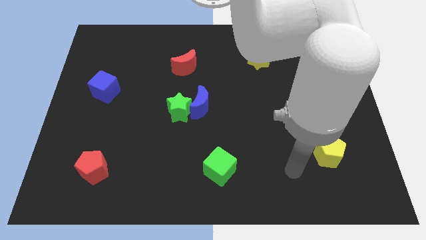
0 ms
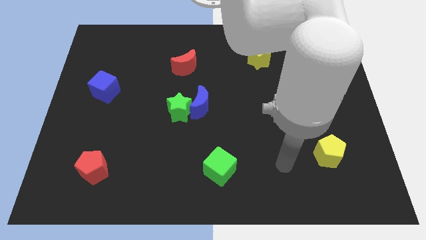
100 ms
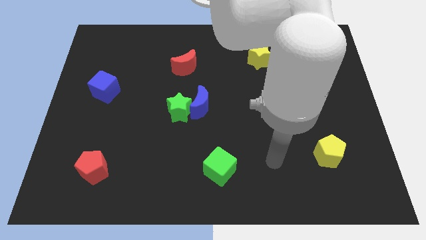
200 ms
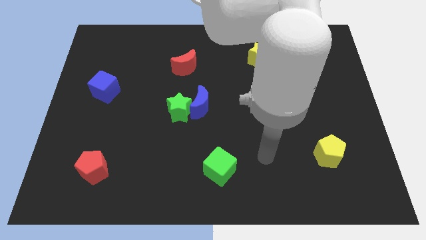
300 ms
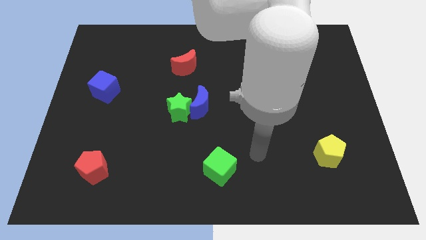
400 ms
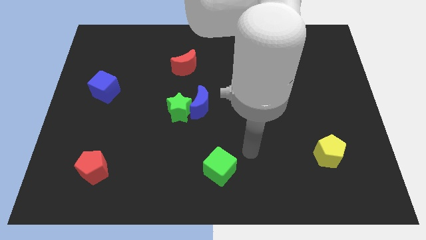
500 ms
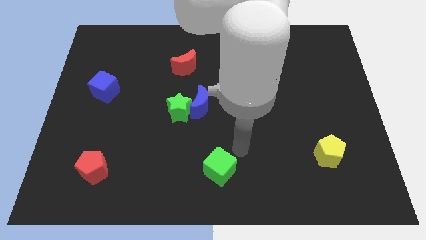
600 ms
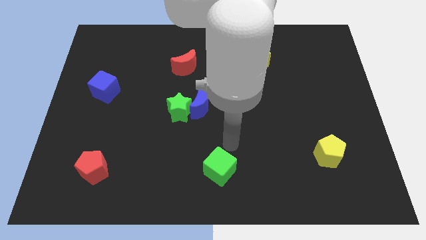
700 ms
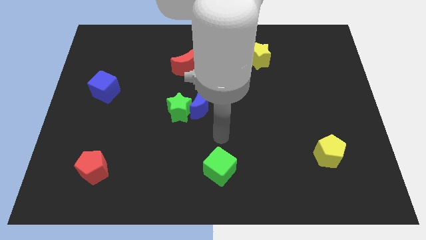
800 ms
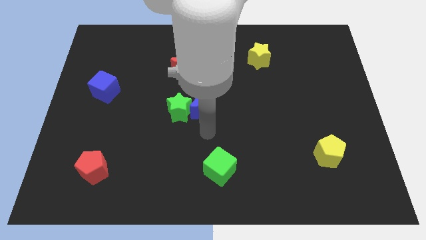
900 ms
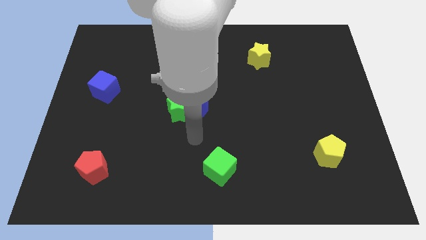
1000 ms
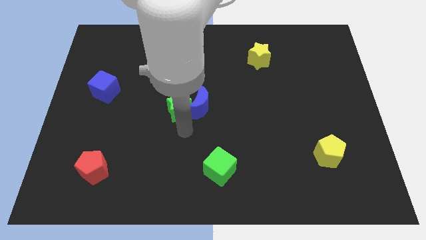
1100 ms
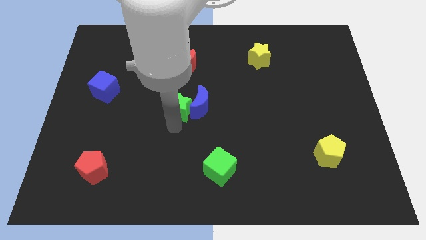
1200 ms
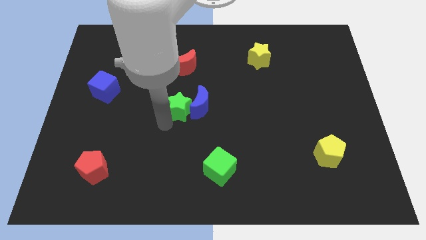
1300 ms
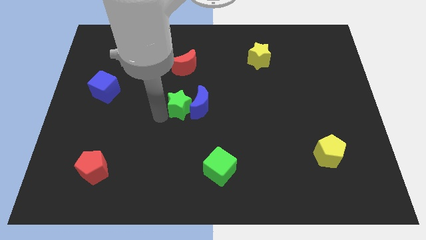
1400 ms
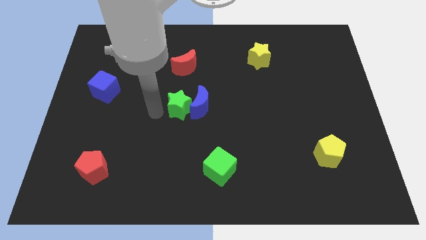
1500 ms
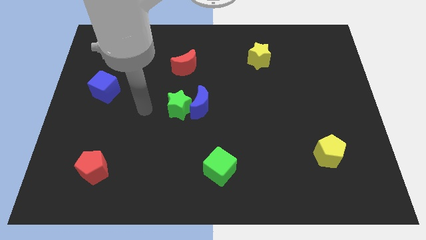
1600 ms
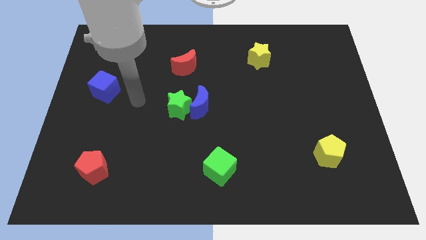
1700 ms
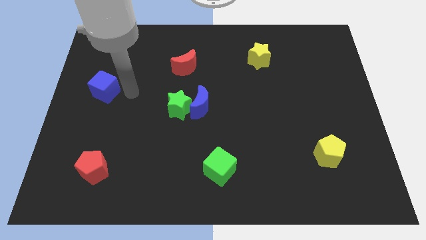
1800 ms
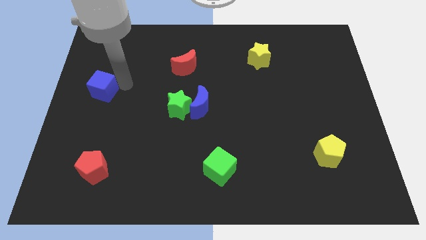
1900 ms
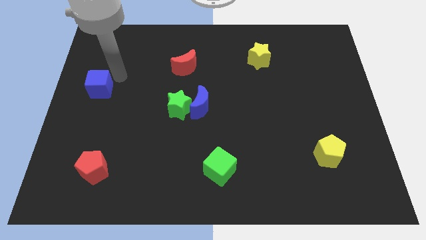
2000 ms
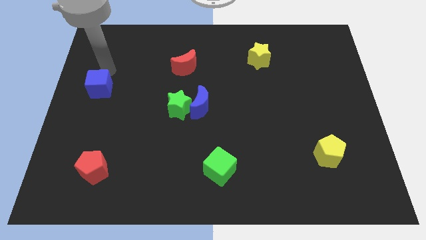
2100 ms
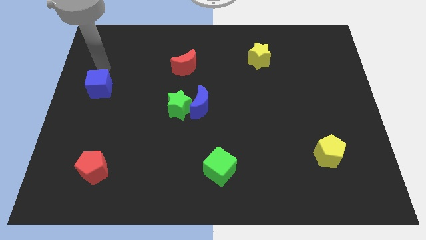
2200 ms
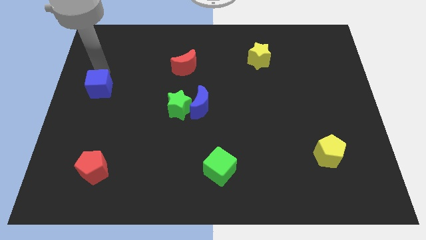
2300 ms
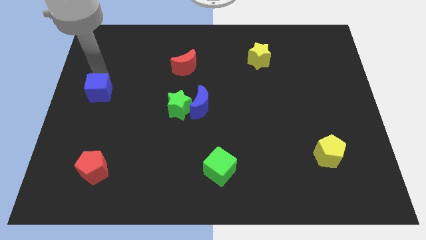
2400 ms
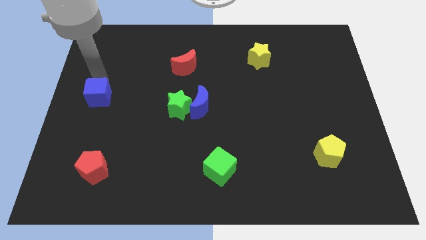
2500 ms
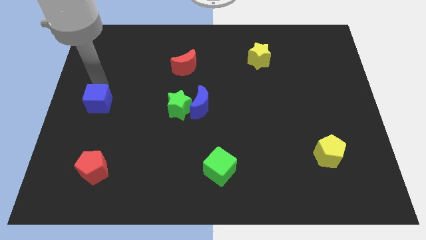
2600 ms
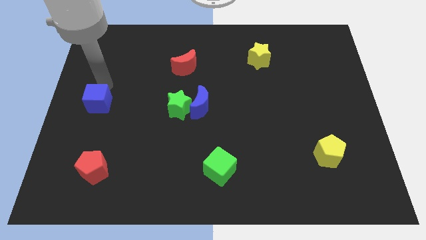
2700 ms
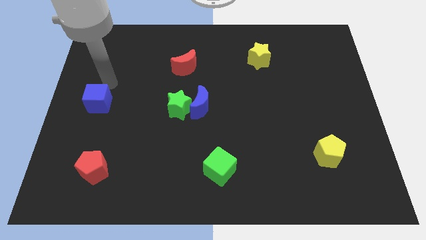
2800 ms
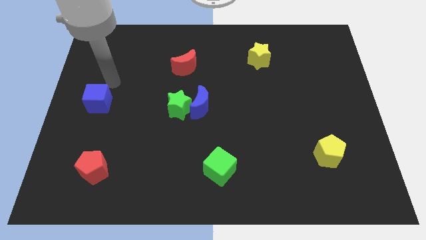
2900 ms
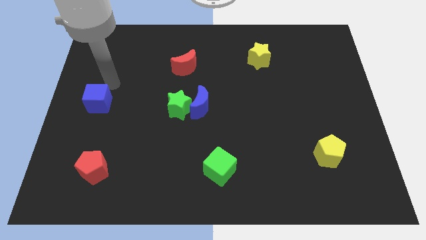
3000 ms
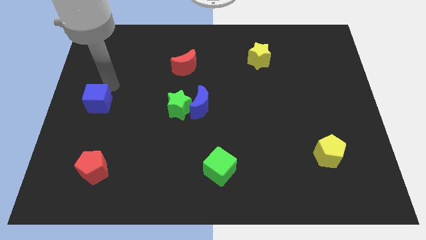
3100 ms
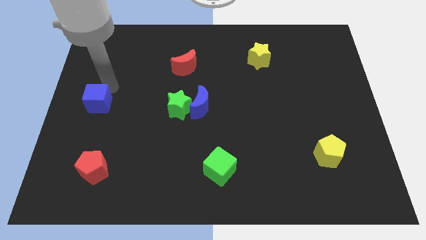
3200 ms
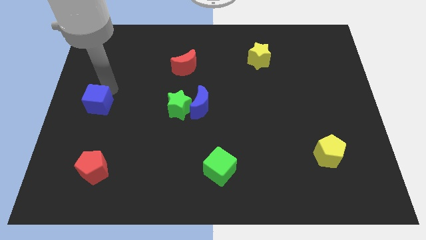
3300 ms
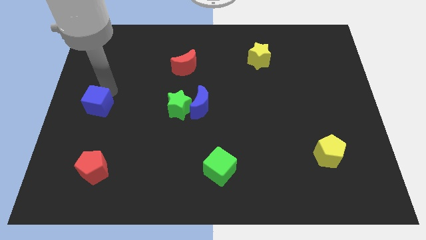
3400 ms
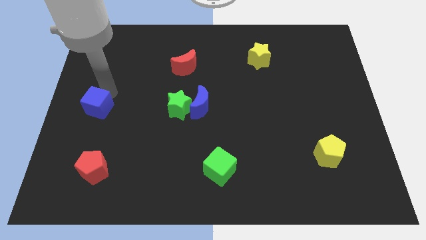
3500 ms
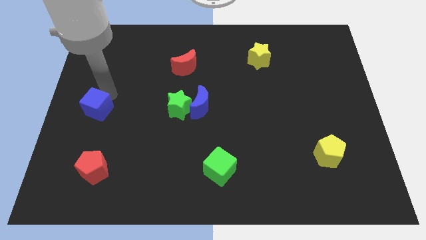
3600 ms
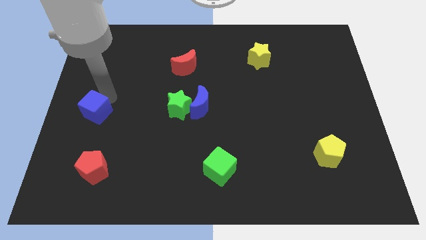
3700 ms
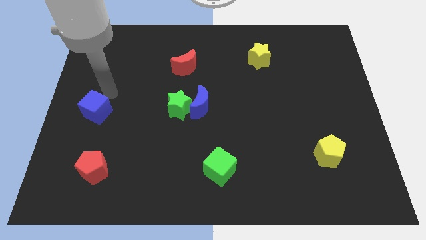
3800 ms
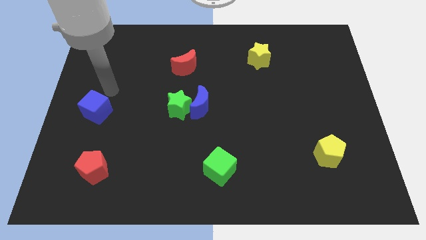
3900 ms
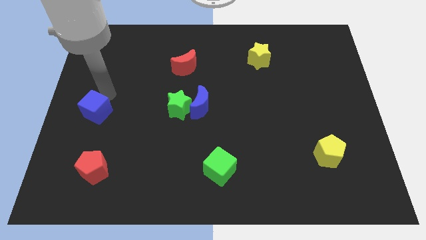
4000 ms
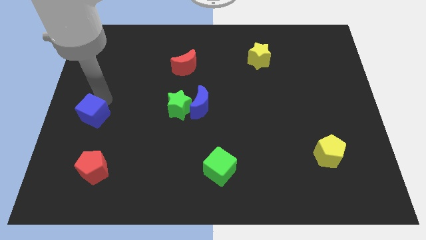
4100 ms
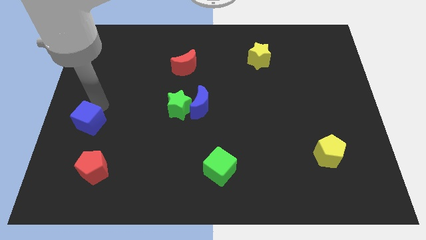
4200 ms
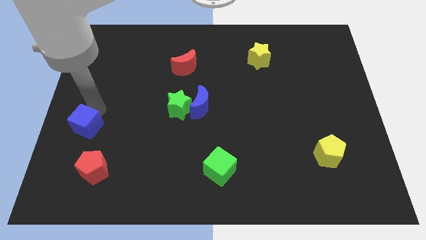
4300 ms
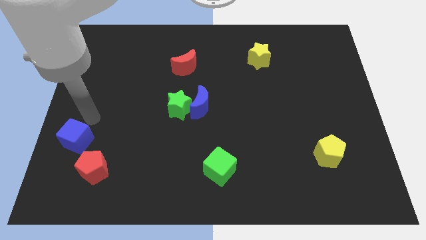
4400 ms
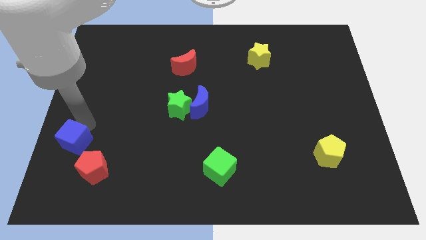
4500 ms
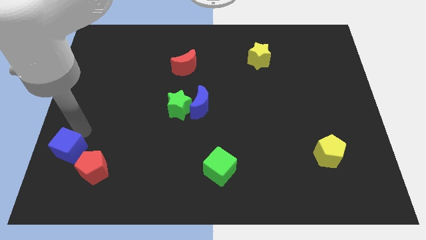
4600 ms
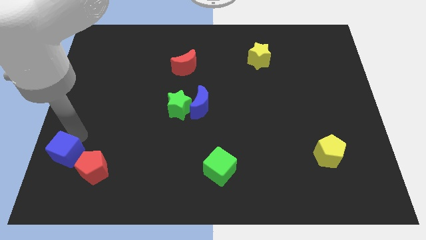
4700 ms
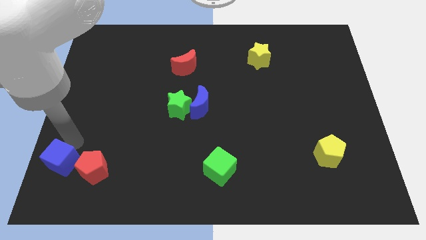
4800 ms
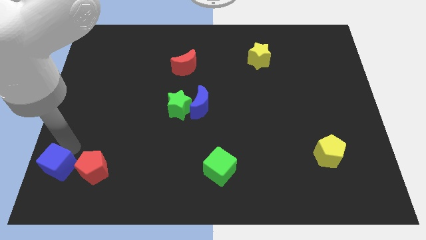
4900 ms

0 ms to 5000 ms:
put the blue cube to the bottom left corner
